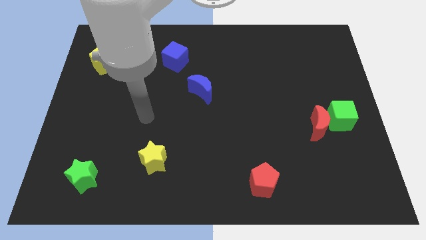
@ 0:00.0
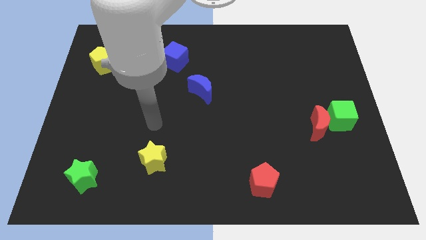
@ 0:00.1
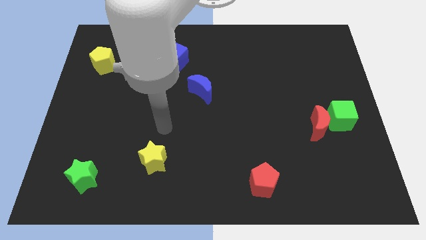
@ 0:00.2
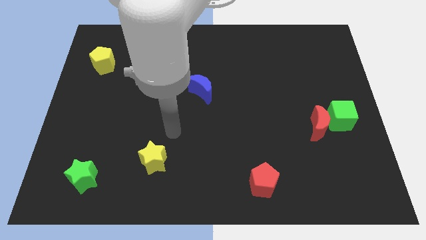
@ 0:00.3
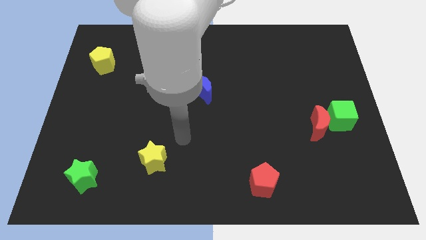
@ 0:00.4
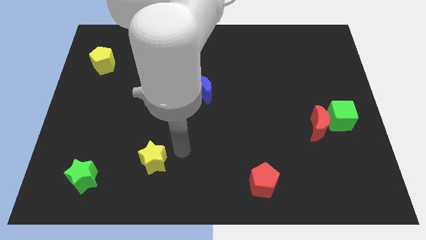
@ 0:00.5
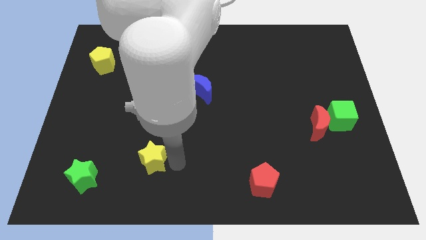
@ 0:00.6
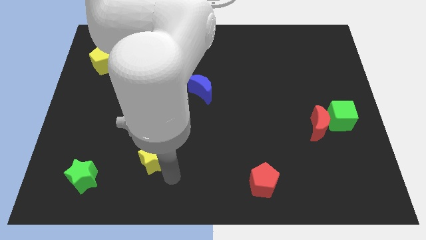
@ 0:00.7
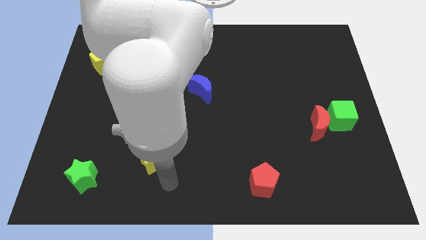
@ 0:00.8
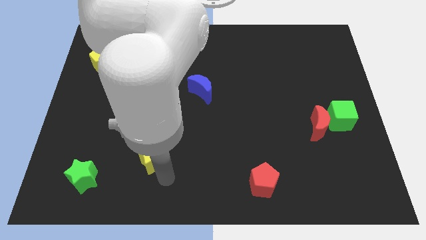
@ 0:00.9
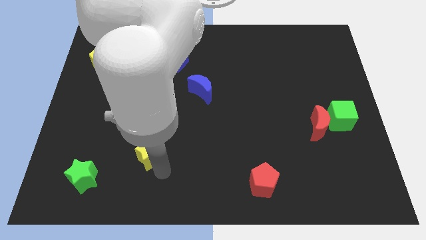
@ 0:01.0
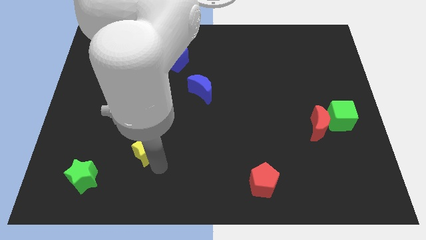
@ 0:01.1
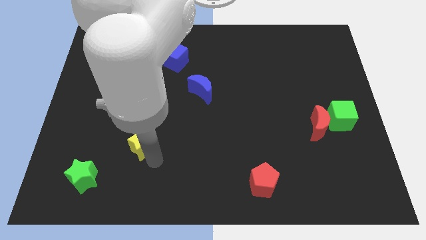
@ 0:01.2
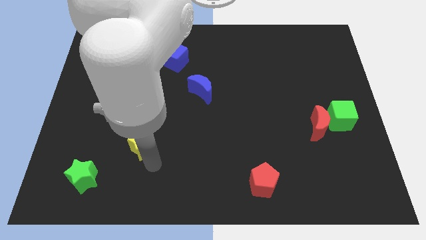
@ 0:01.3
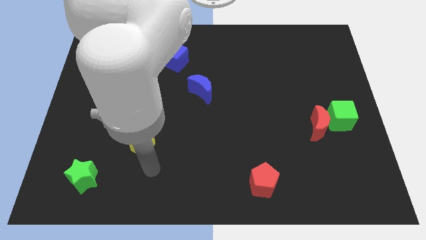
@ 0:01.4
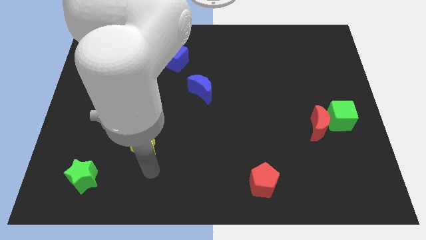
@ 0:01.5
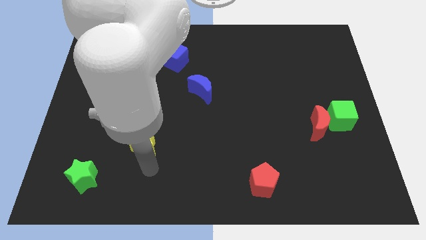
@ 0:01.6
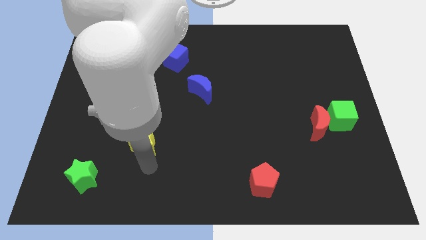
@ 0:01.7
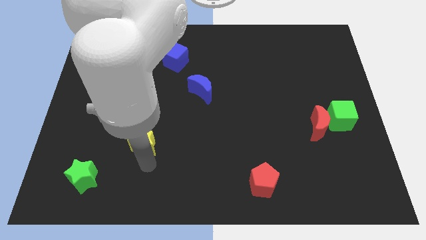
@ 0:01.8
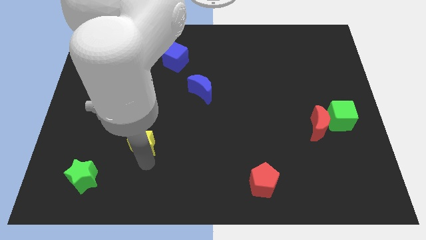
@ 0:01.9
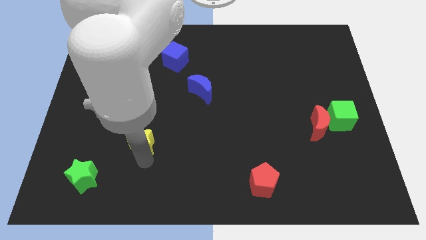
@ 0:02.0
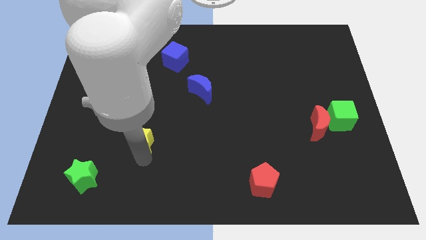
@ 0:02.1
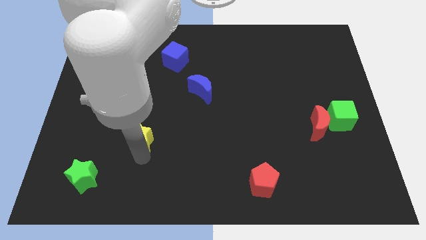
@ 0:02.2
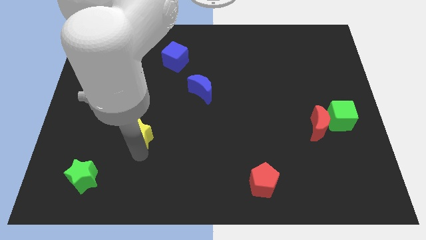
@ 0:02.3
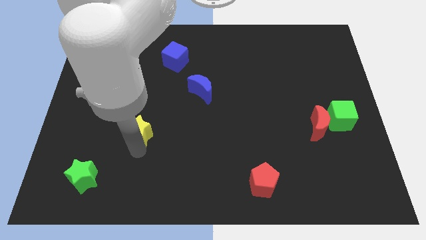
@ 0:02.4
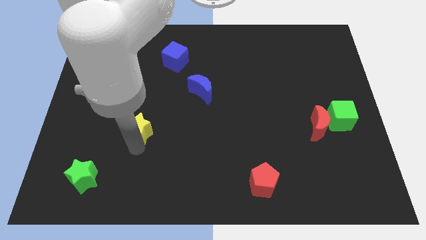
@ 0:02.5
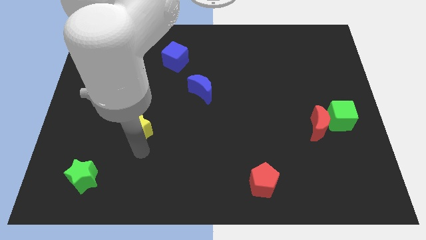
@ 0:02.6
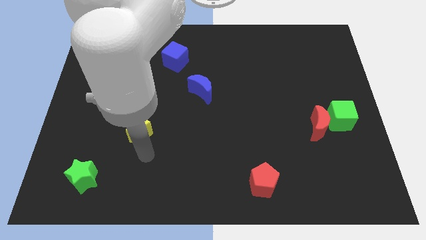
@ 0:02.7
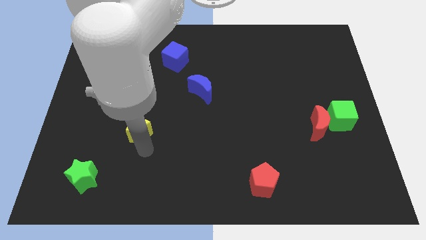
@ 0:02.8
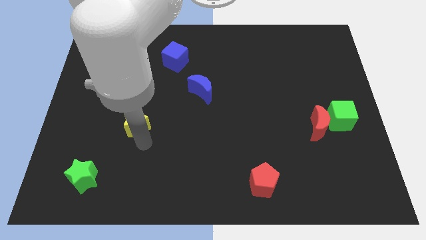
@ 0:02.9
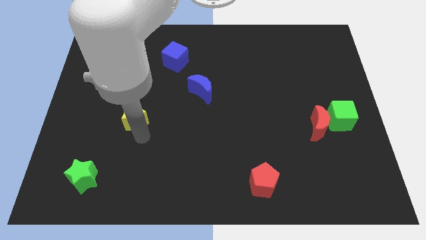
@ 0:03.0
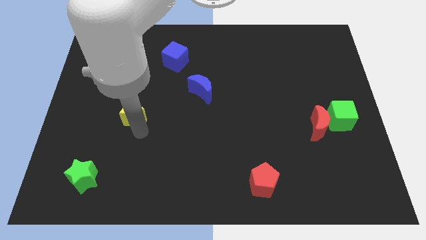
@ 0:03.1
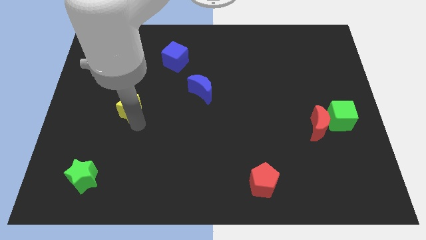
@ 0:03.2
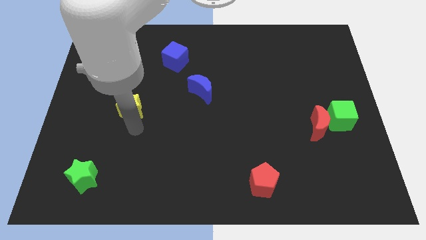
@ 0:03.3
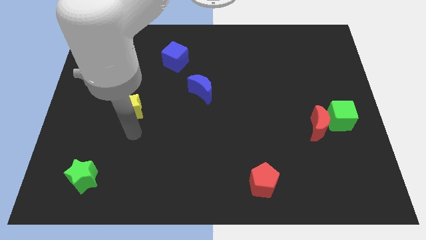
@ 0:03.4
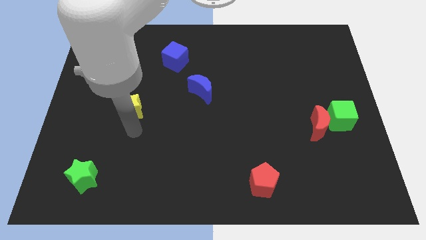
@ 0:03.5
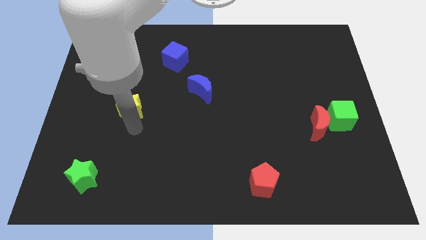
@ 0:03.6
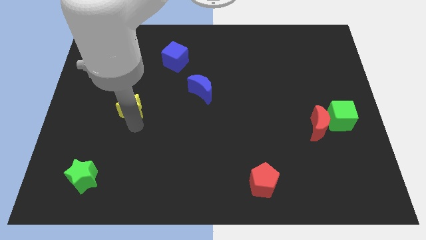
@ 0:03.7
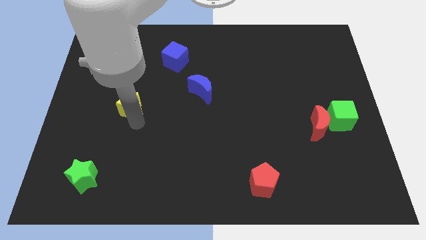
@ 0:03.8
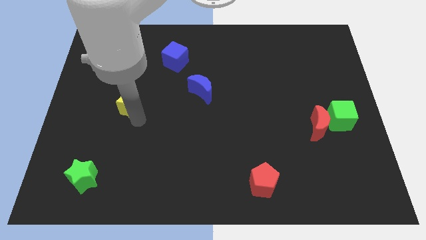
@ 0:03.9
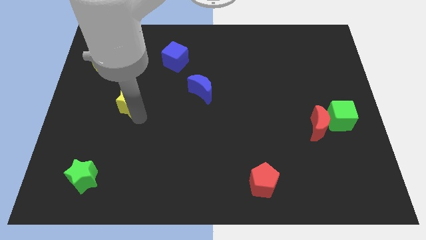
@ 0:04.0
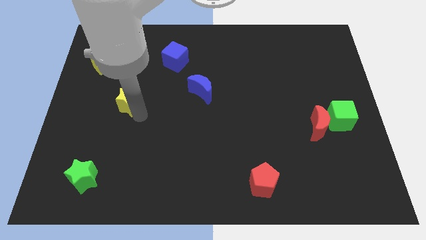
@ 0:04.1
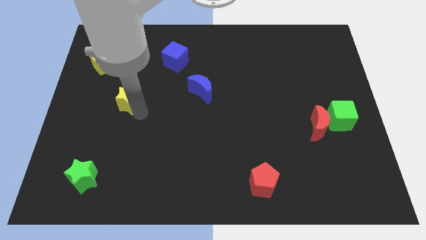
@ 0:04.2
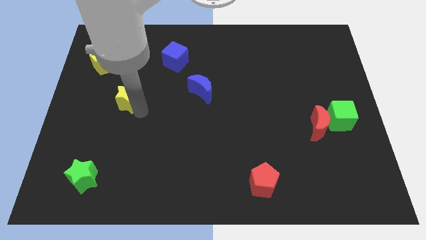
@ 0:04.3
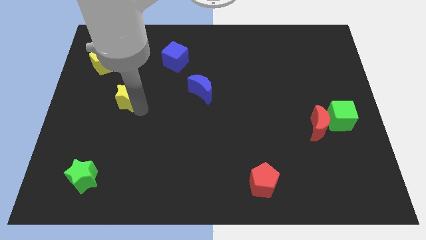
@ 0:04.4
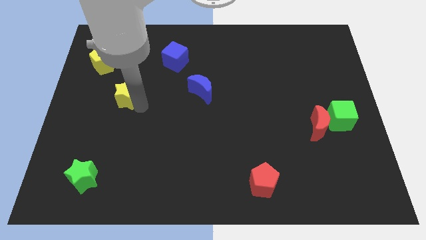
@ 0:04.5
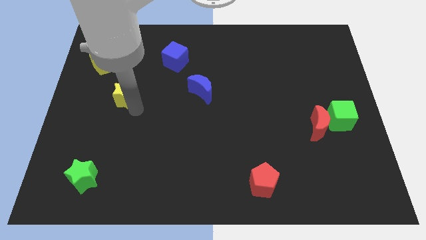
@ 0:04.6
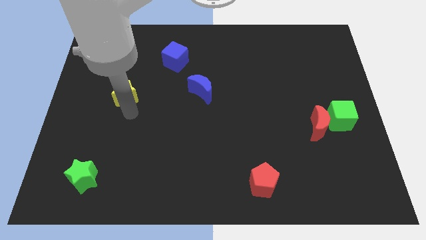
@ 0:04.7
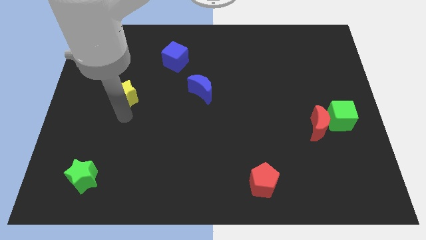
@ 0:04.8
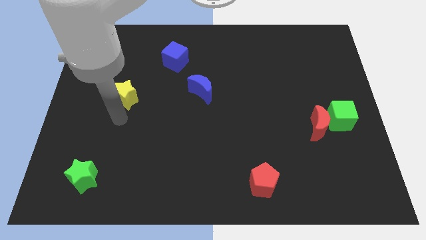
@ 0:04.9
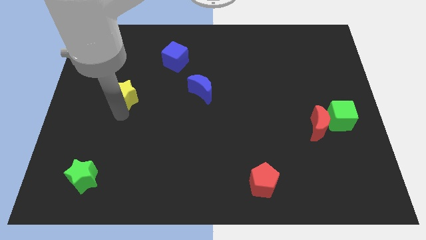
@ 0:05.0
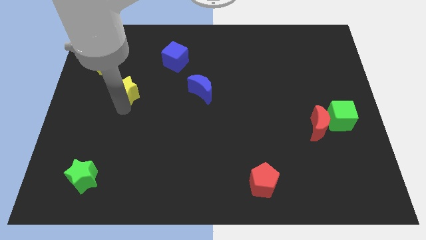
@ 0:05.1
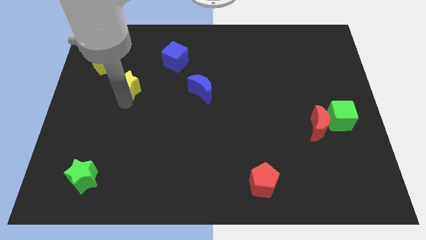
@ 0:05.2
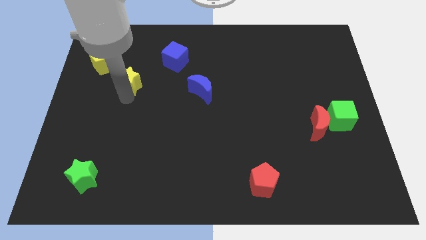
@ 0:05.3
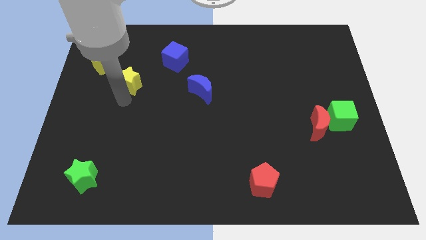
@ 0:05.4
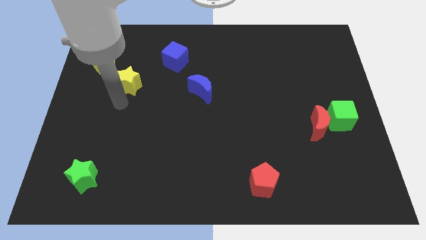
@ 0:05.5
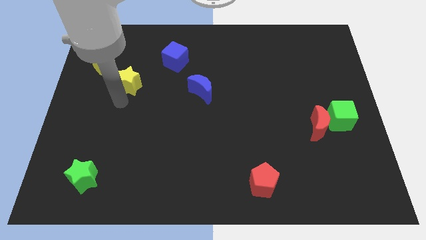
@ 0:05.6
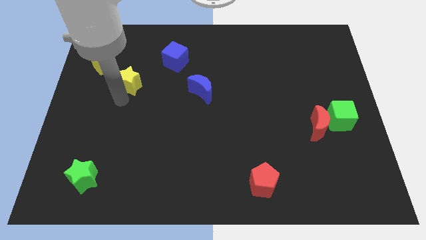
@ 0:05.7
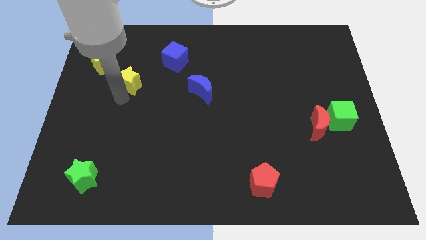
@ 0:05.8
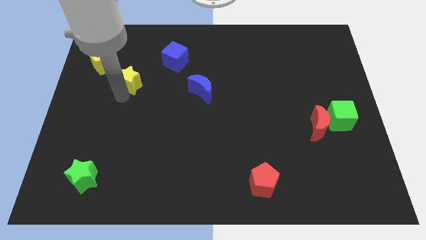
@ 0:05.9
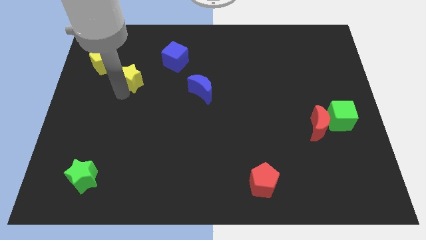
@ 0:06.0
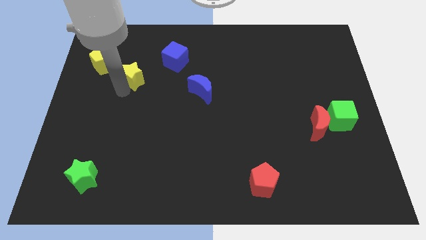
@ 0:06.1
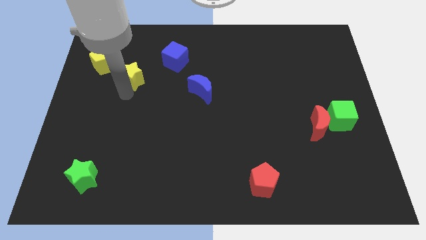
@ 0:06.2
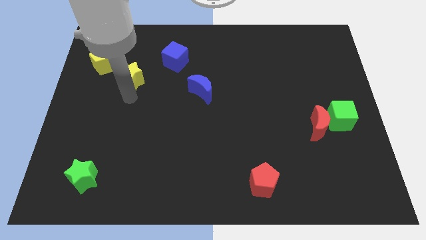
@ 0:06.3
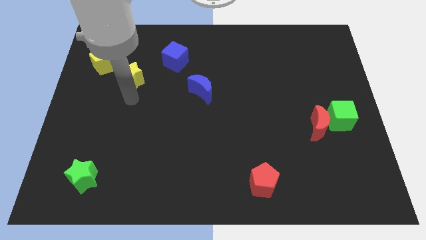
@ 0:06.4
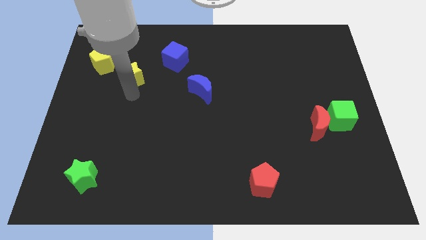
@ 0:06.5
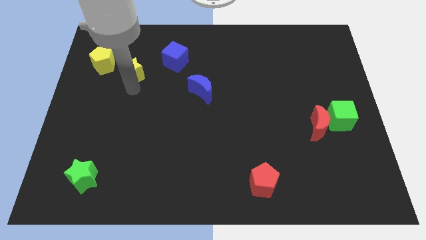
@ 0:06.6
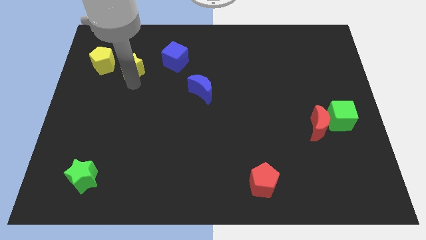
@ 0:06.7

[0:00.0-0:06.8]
slide the yellow star left of the blue cube

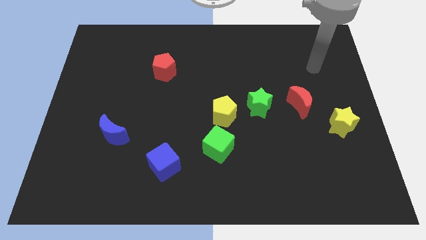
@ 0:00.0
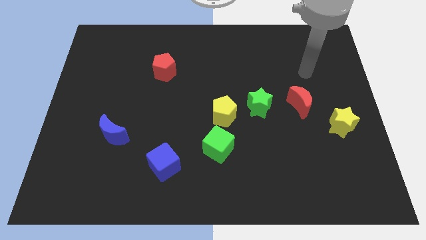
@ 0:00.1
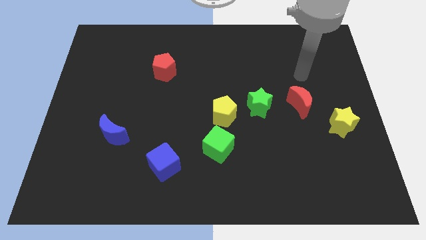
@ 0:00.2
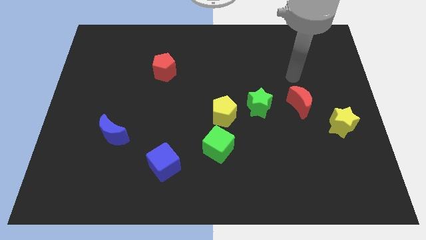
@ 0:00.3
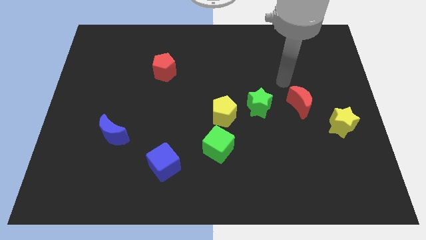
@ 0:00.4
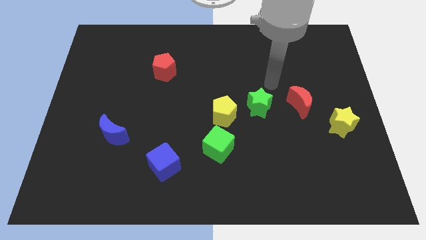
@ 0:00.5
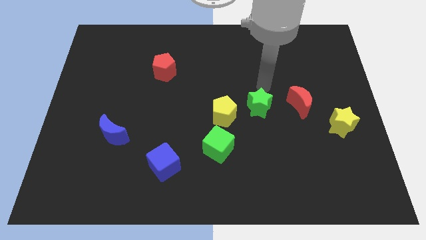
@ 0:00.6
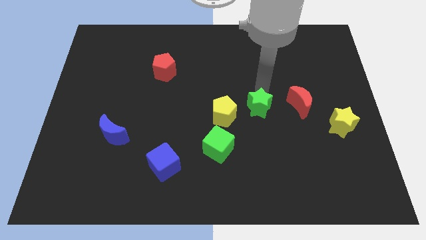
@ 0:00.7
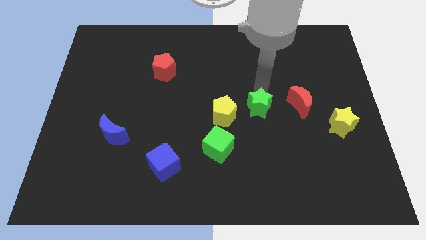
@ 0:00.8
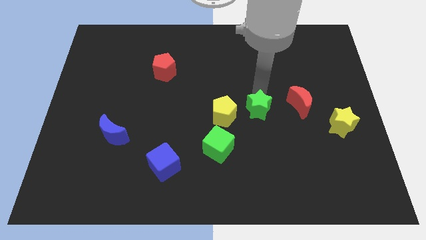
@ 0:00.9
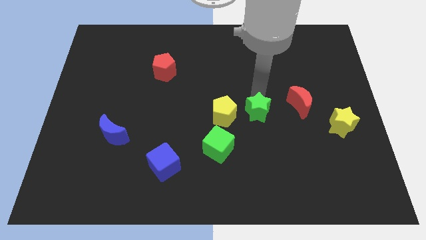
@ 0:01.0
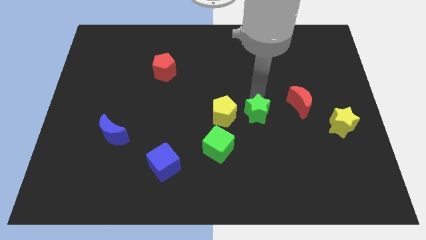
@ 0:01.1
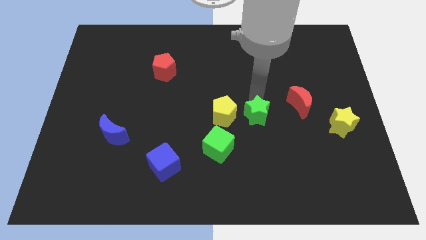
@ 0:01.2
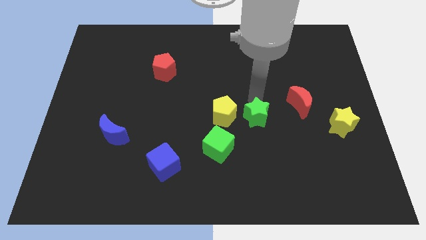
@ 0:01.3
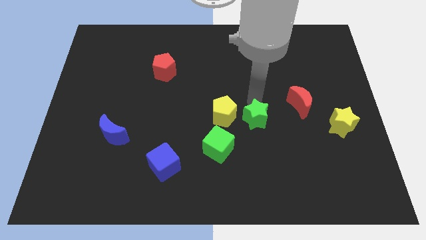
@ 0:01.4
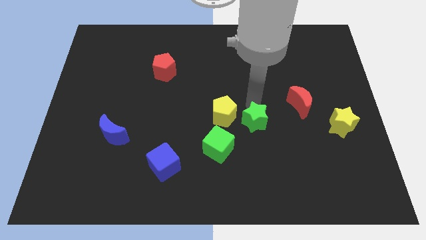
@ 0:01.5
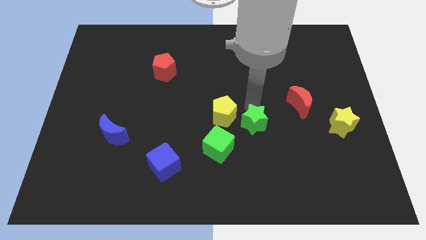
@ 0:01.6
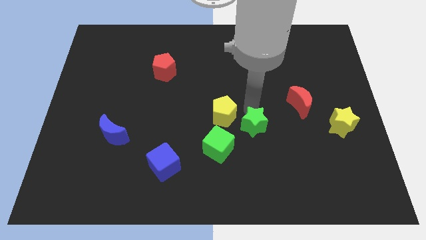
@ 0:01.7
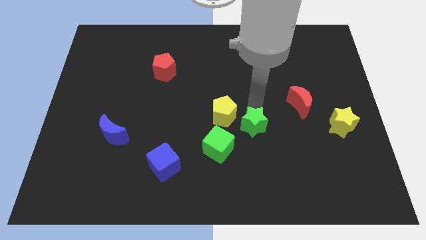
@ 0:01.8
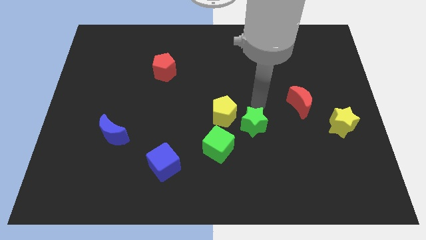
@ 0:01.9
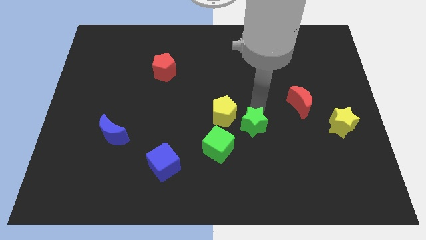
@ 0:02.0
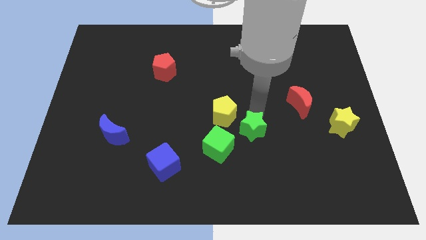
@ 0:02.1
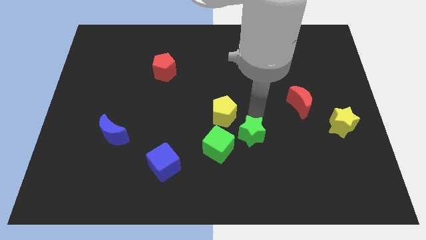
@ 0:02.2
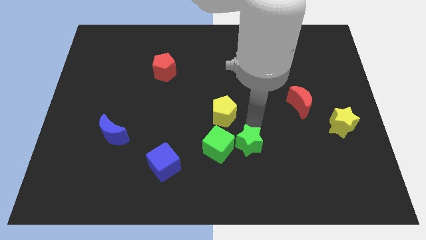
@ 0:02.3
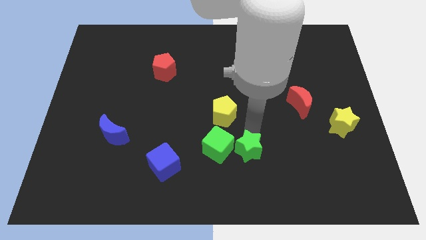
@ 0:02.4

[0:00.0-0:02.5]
push the green star diagonally down and to the right of the green cube
